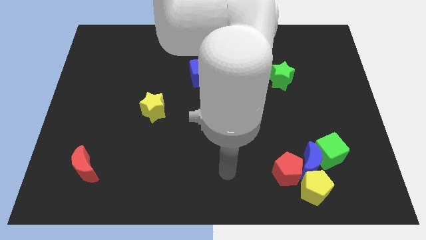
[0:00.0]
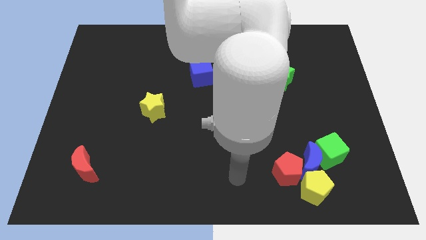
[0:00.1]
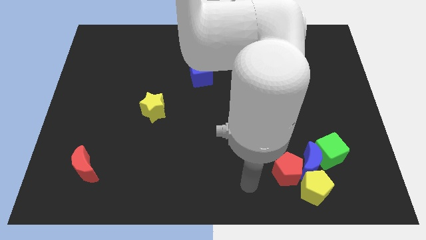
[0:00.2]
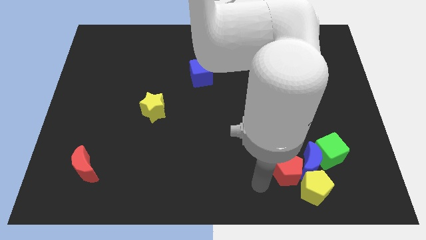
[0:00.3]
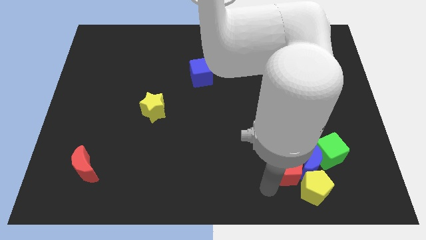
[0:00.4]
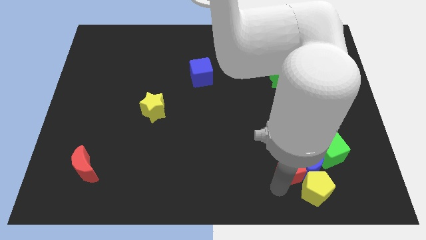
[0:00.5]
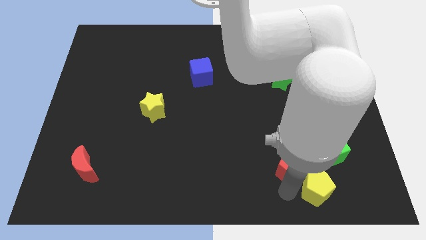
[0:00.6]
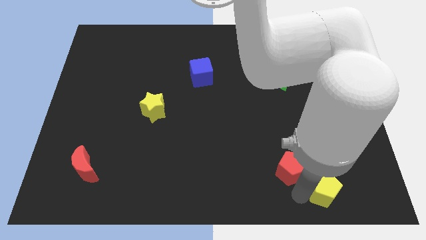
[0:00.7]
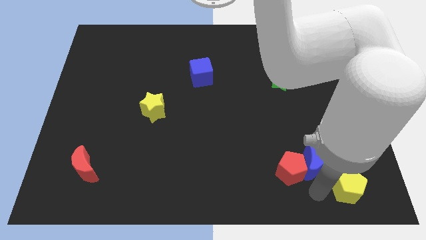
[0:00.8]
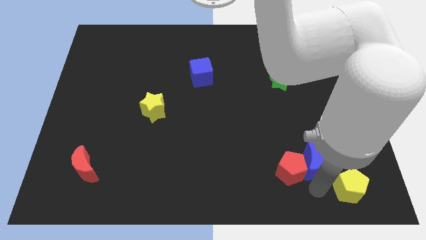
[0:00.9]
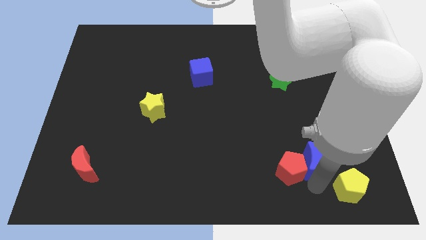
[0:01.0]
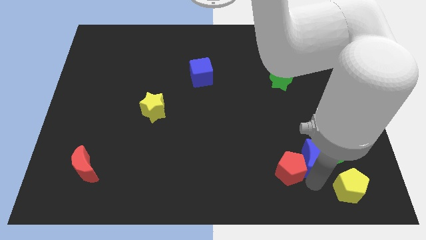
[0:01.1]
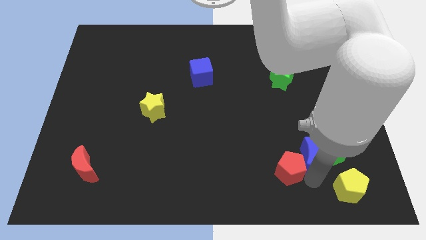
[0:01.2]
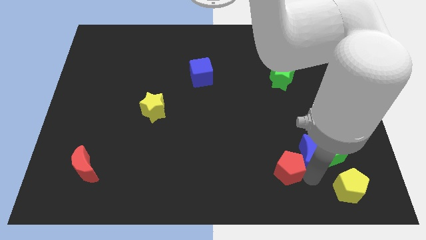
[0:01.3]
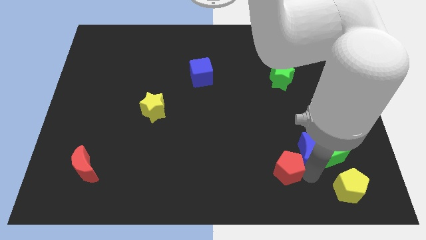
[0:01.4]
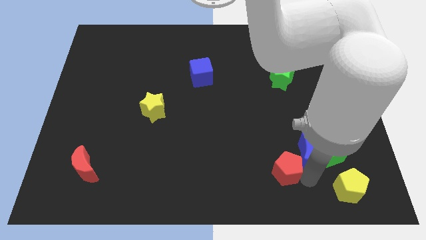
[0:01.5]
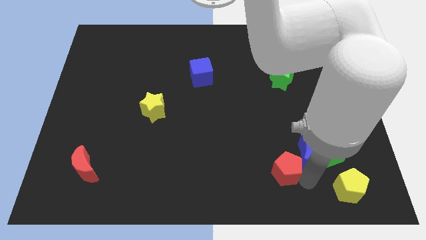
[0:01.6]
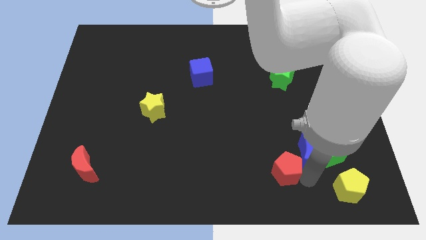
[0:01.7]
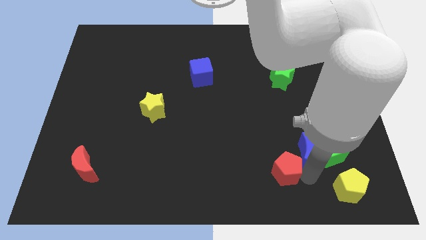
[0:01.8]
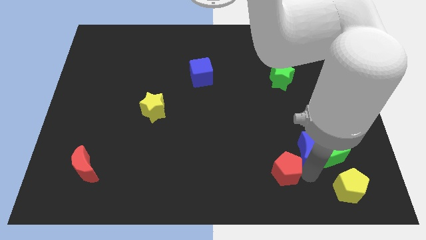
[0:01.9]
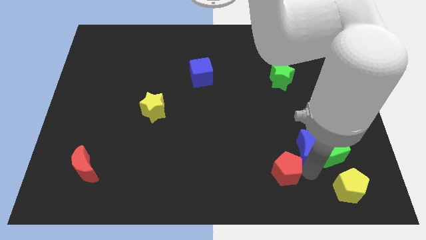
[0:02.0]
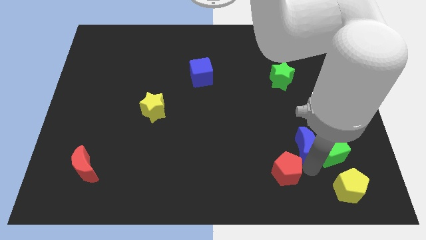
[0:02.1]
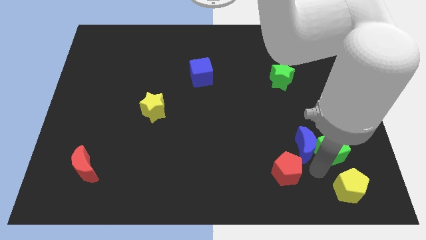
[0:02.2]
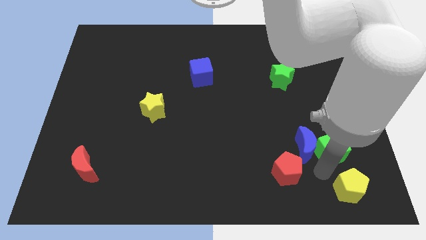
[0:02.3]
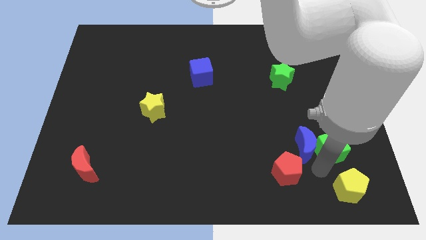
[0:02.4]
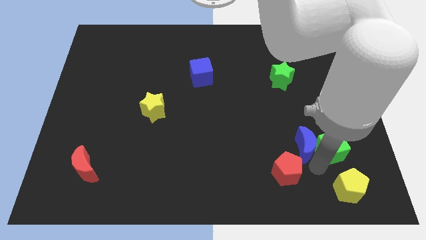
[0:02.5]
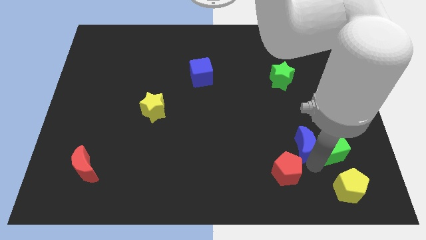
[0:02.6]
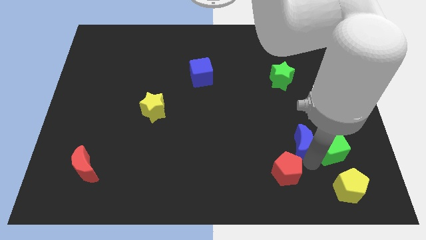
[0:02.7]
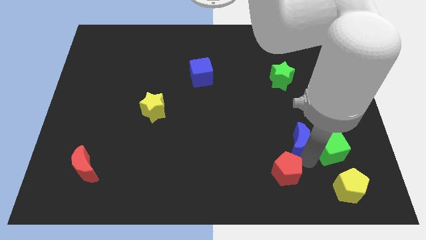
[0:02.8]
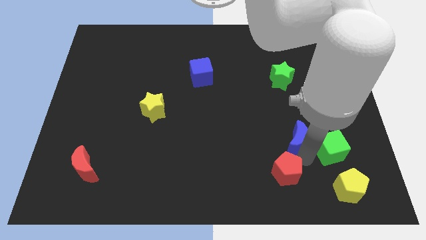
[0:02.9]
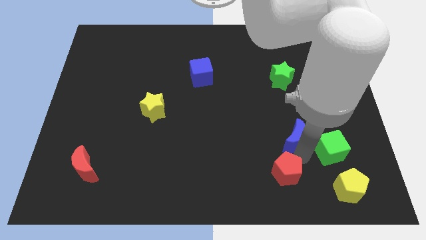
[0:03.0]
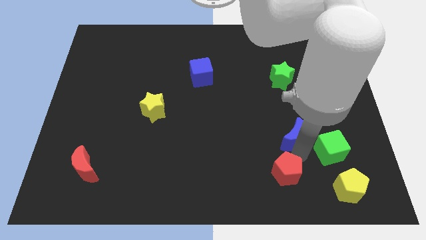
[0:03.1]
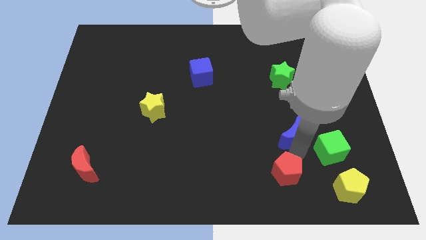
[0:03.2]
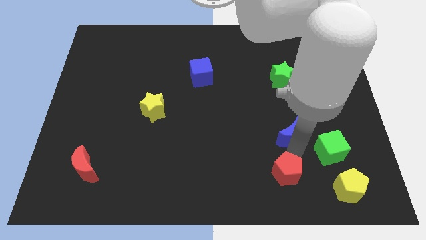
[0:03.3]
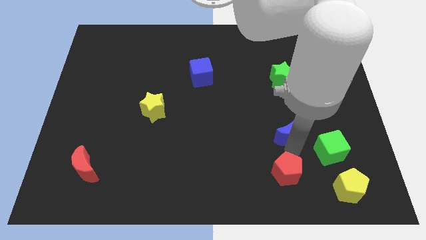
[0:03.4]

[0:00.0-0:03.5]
move the blue moon away from the green cube, red pentagon, and yellow pentagon

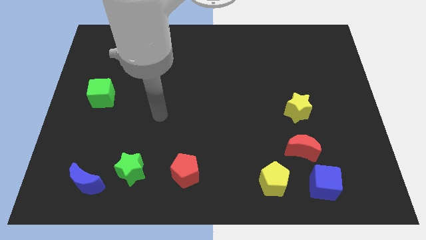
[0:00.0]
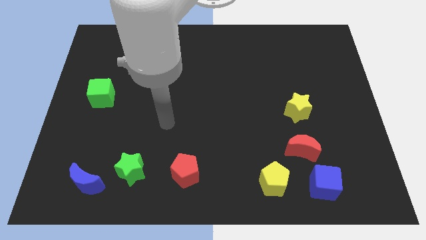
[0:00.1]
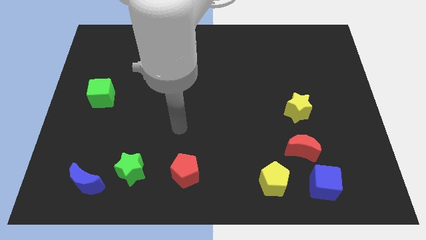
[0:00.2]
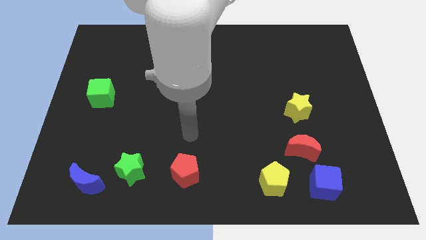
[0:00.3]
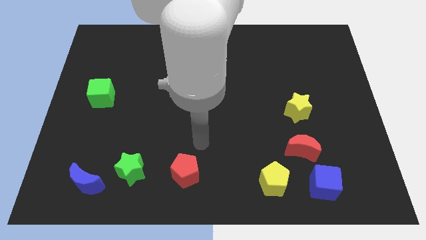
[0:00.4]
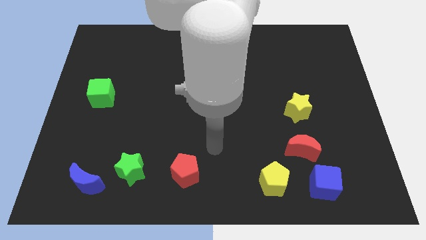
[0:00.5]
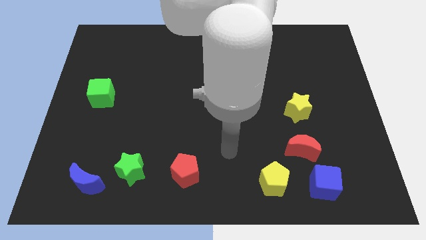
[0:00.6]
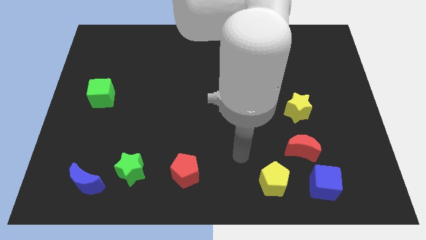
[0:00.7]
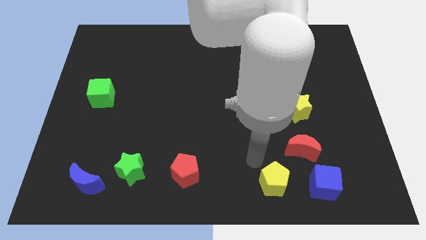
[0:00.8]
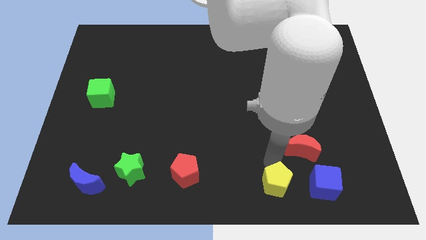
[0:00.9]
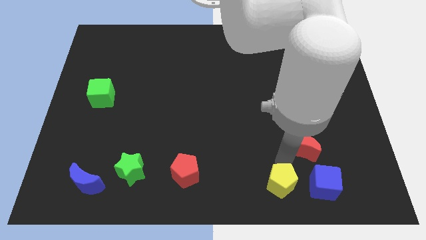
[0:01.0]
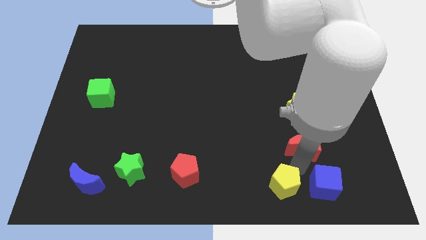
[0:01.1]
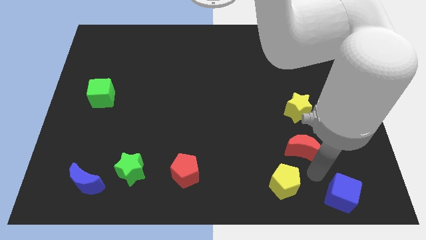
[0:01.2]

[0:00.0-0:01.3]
separate the red moon from the blue cube

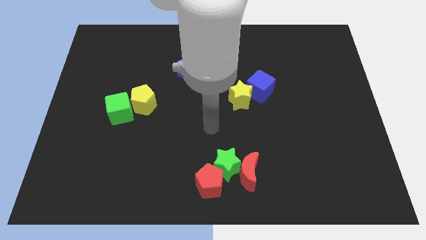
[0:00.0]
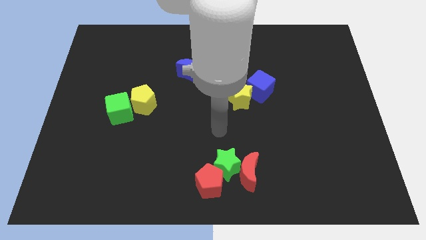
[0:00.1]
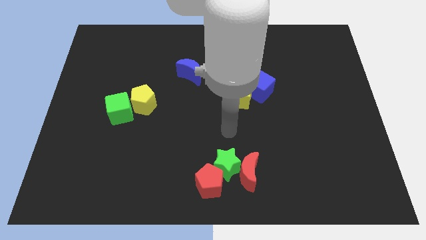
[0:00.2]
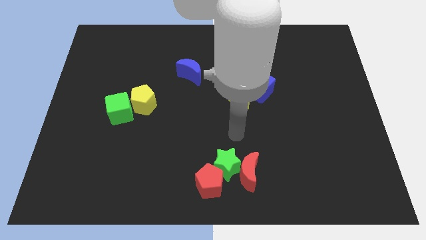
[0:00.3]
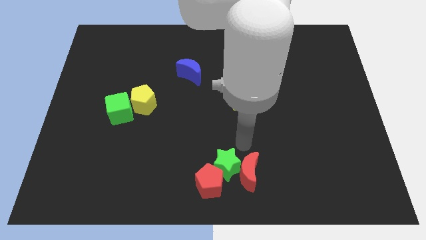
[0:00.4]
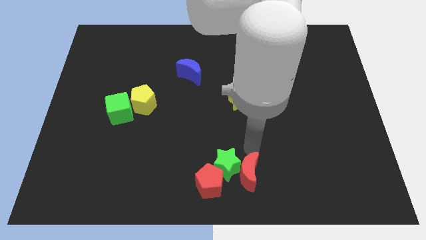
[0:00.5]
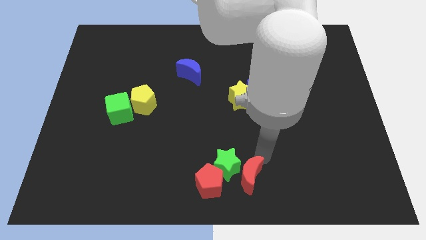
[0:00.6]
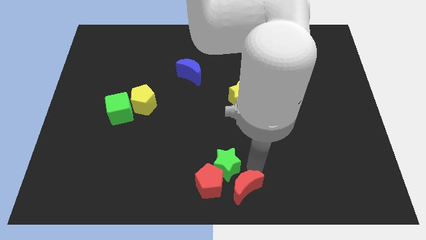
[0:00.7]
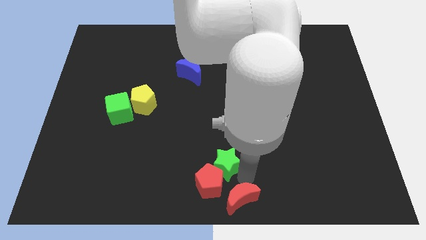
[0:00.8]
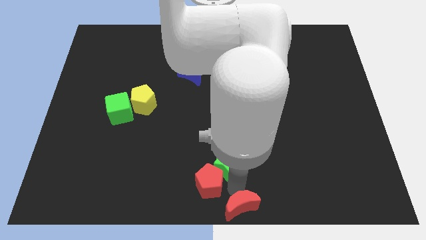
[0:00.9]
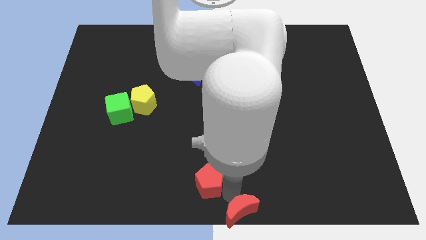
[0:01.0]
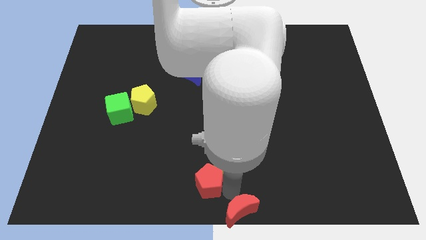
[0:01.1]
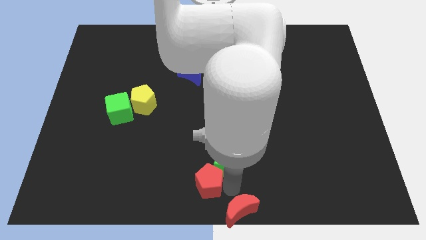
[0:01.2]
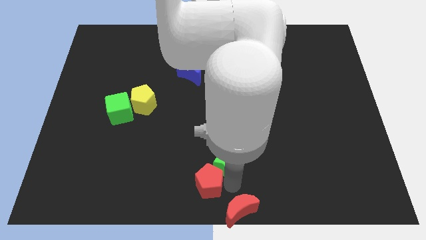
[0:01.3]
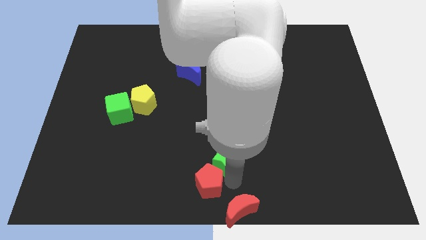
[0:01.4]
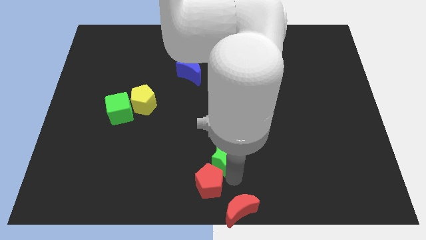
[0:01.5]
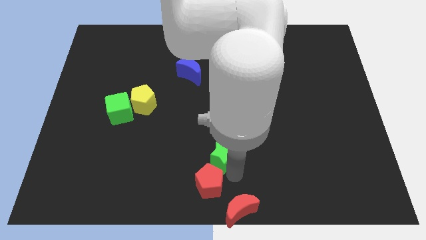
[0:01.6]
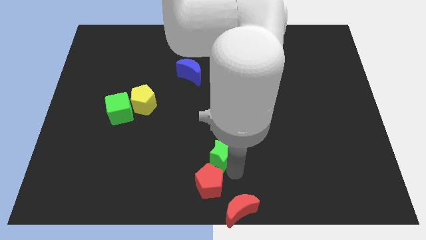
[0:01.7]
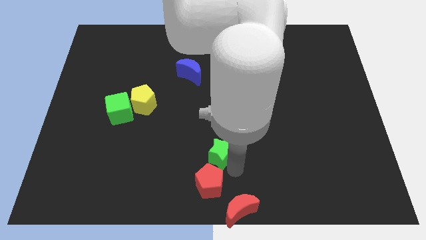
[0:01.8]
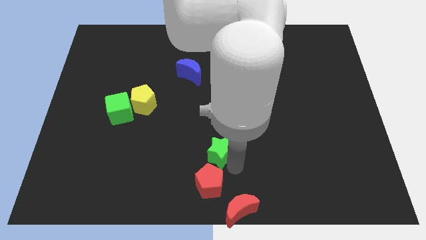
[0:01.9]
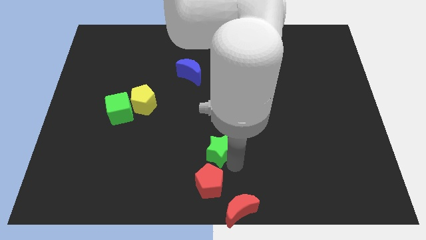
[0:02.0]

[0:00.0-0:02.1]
move the green star away from the red moon and red pentagon

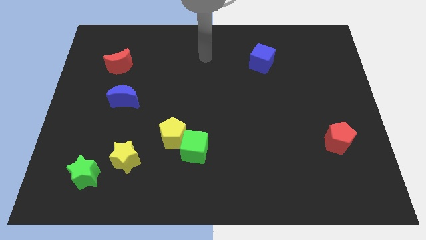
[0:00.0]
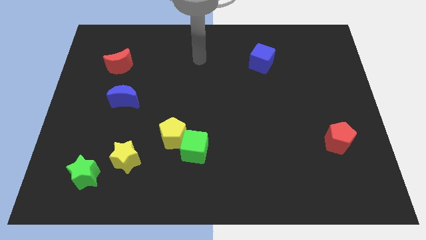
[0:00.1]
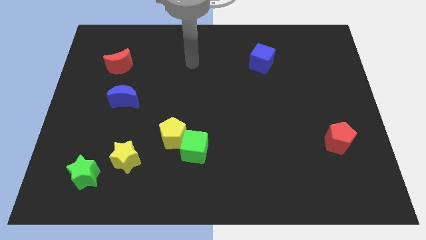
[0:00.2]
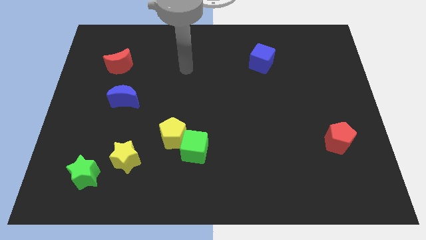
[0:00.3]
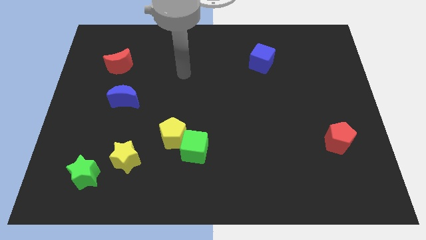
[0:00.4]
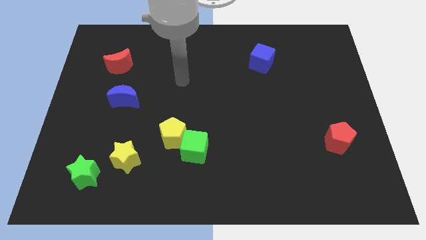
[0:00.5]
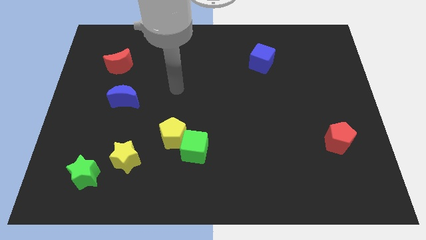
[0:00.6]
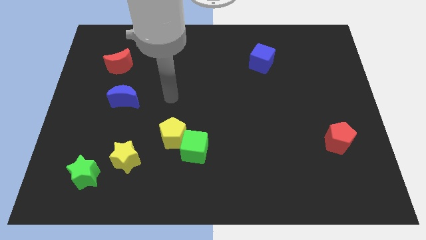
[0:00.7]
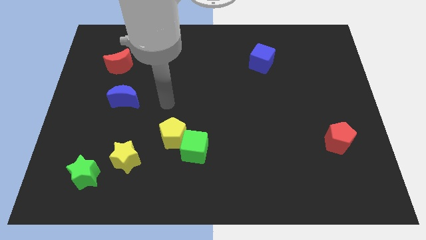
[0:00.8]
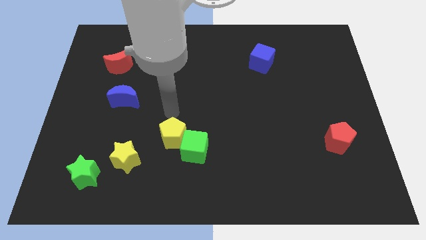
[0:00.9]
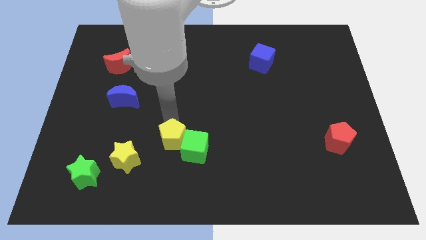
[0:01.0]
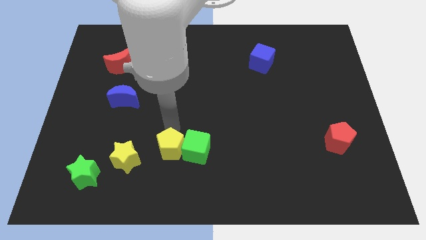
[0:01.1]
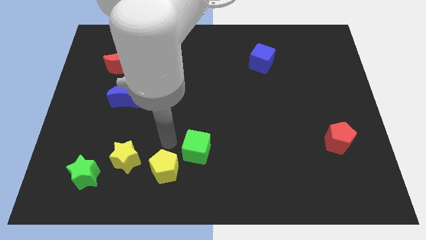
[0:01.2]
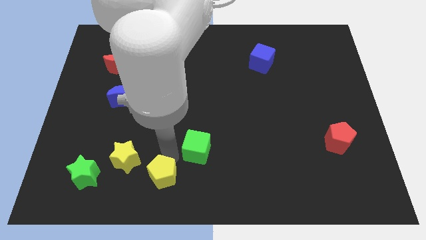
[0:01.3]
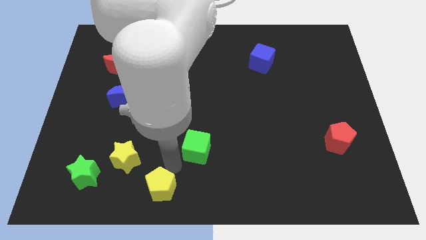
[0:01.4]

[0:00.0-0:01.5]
pull the green cube apart from the yellow pentagon

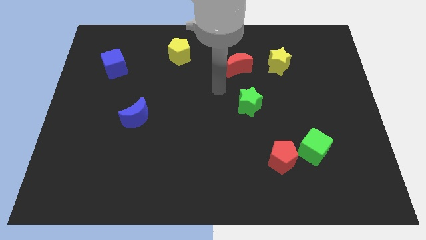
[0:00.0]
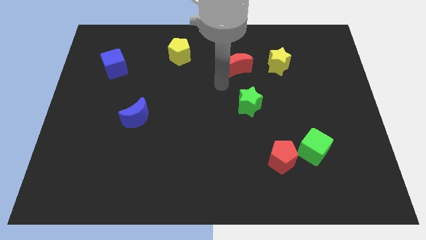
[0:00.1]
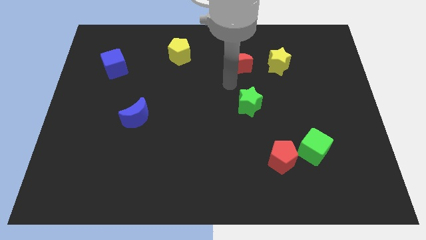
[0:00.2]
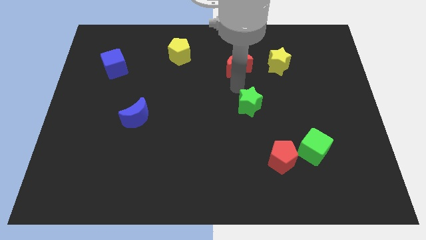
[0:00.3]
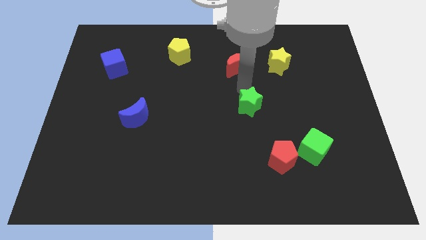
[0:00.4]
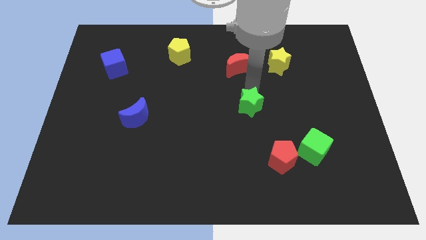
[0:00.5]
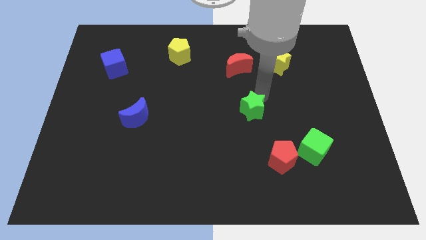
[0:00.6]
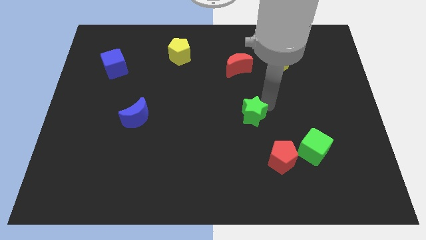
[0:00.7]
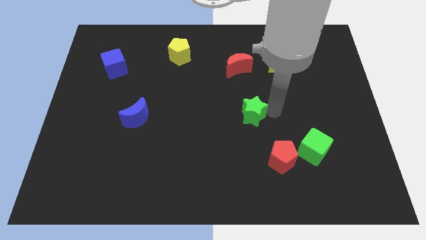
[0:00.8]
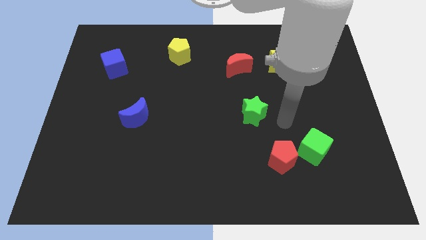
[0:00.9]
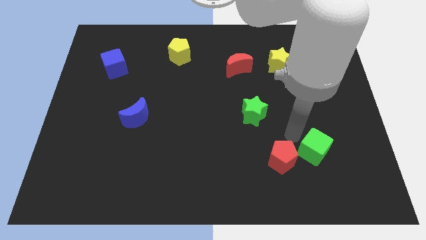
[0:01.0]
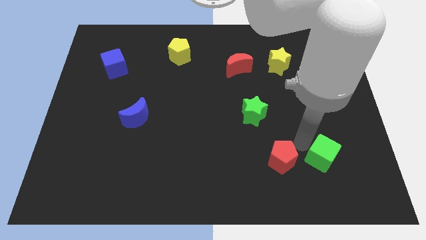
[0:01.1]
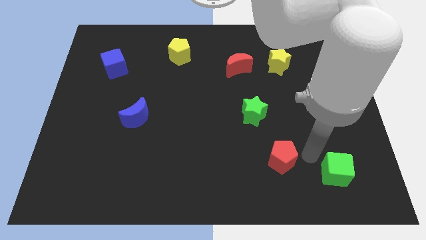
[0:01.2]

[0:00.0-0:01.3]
separate the red pentagon from the green cube
